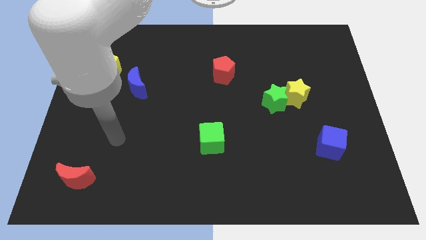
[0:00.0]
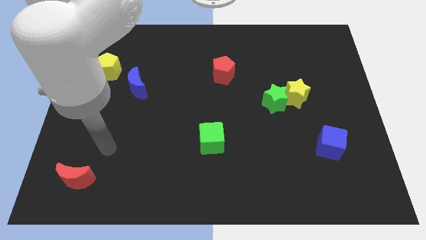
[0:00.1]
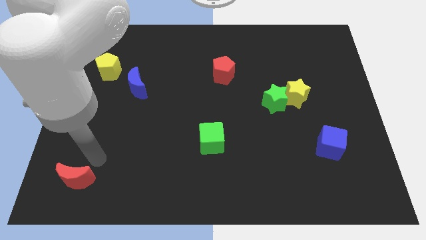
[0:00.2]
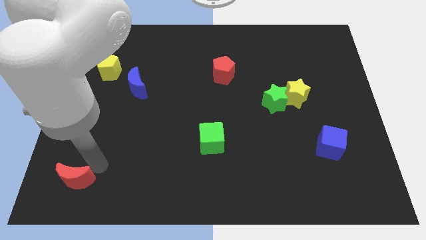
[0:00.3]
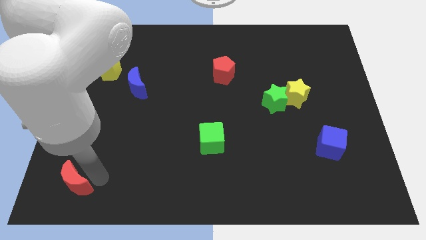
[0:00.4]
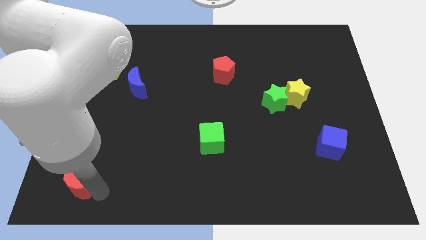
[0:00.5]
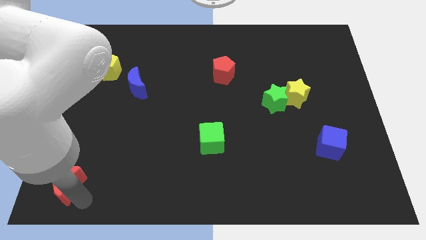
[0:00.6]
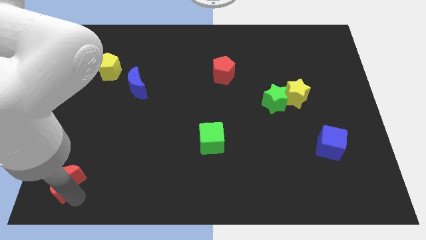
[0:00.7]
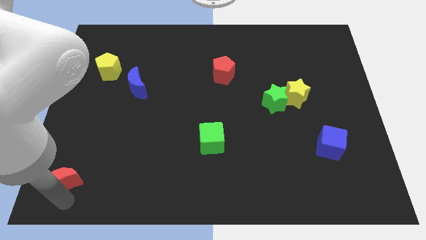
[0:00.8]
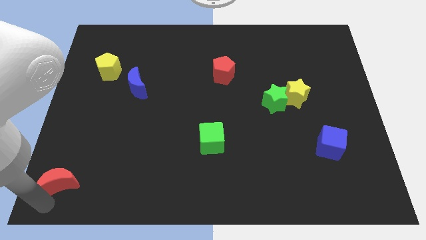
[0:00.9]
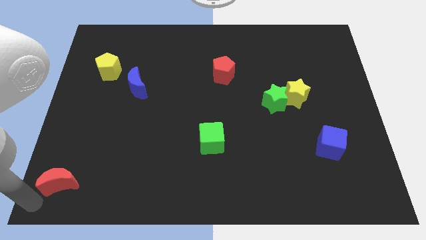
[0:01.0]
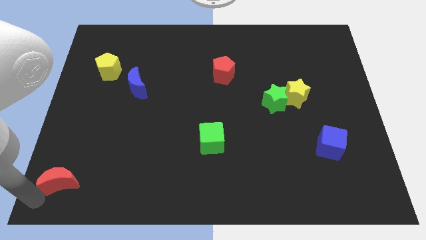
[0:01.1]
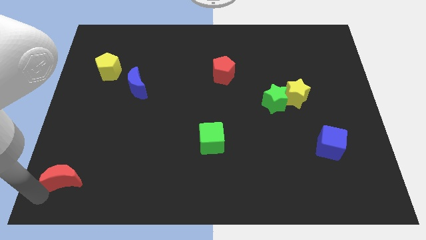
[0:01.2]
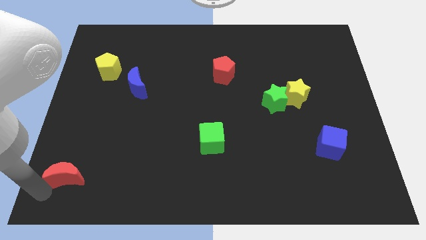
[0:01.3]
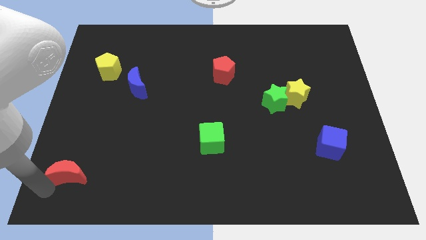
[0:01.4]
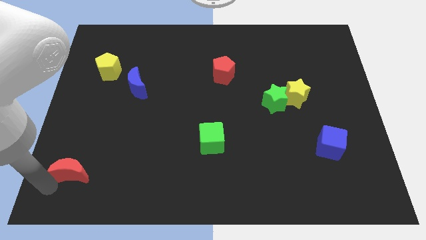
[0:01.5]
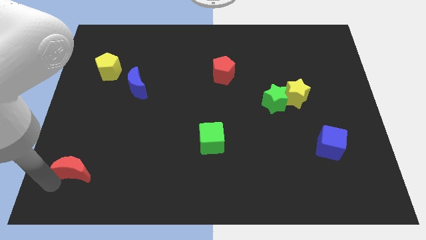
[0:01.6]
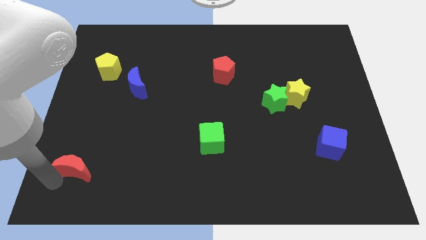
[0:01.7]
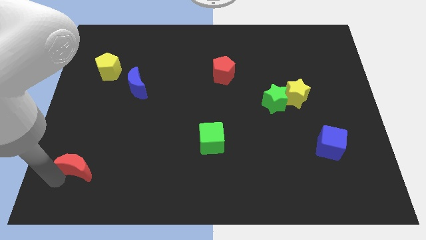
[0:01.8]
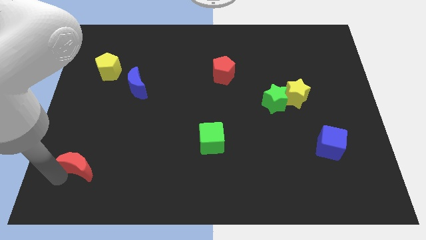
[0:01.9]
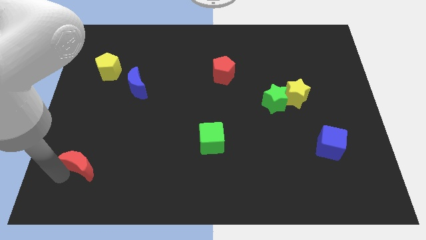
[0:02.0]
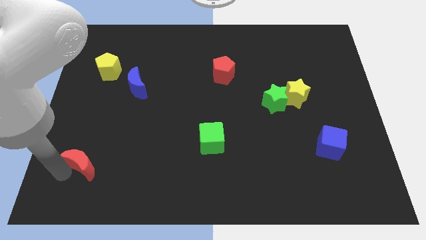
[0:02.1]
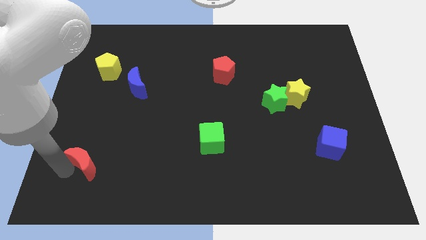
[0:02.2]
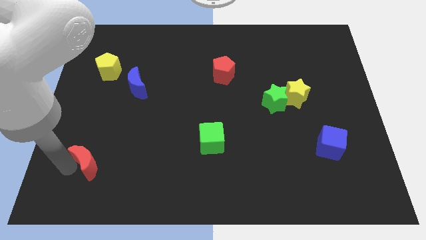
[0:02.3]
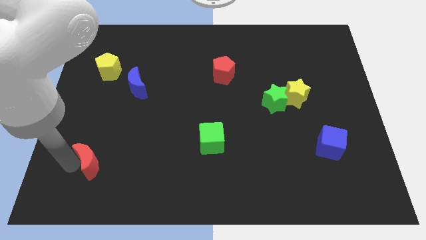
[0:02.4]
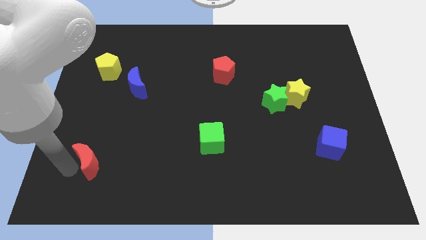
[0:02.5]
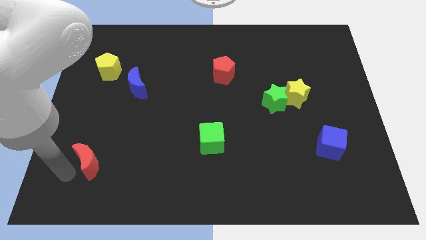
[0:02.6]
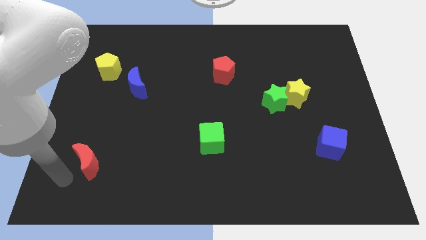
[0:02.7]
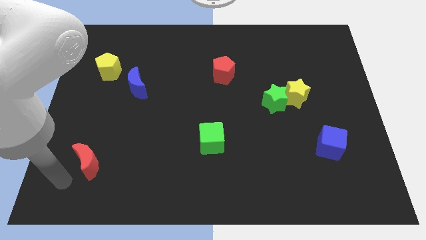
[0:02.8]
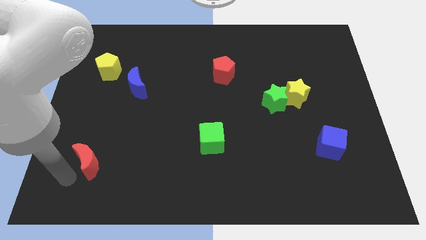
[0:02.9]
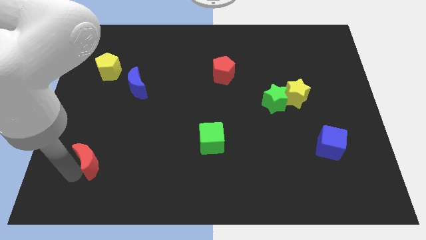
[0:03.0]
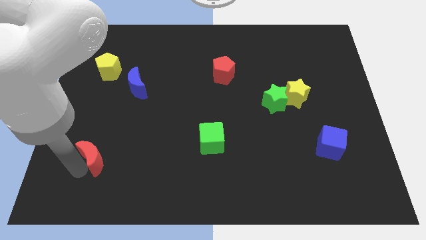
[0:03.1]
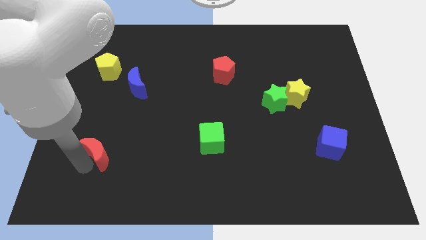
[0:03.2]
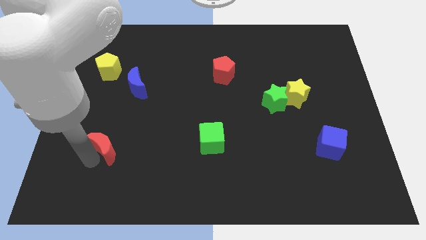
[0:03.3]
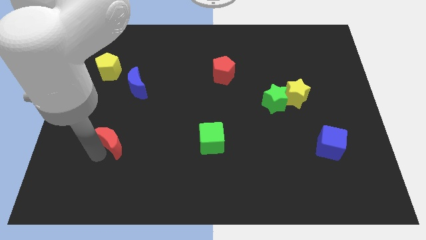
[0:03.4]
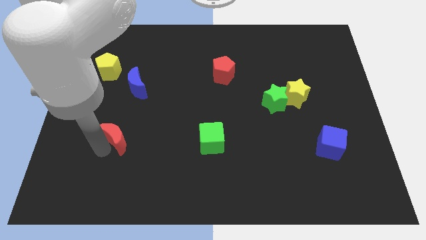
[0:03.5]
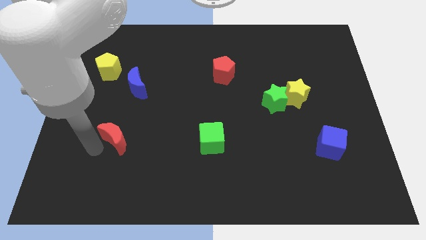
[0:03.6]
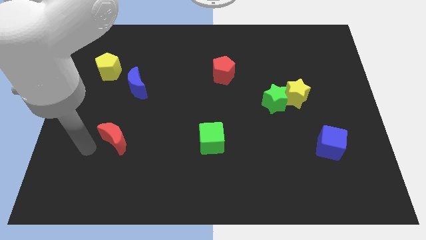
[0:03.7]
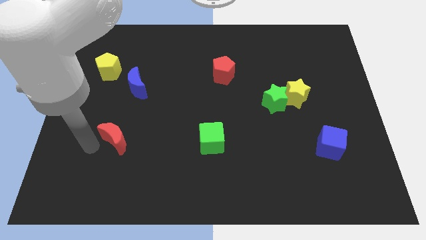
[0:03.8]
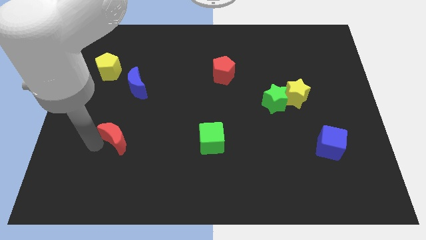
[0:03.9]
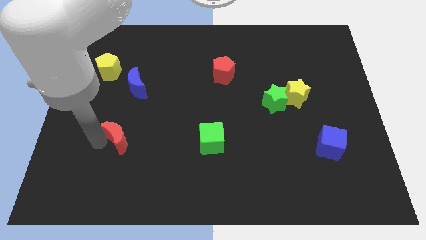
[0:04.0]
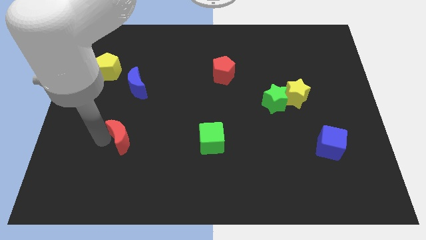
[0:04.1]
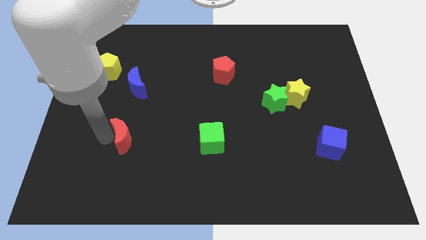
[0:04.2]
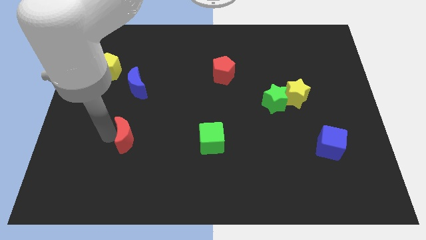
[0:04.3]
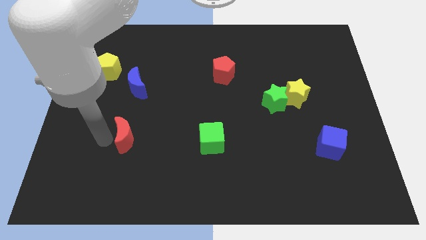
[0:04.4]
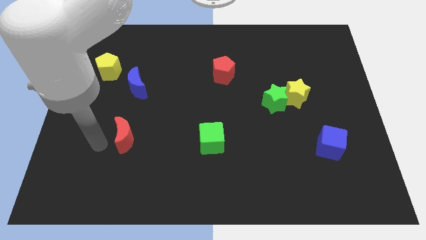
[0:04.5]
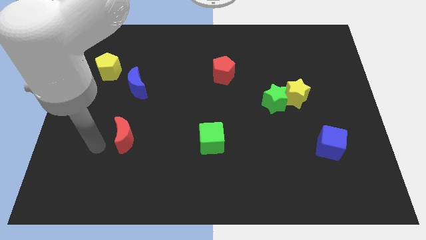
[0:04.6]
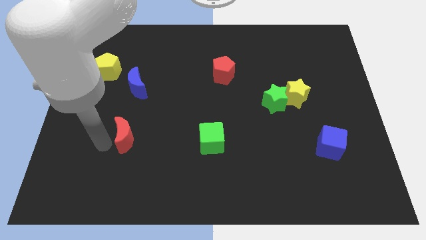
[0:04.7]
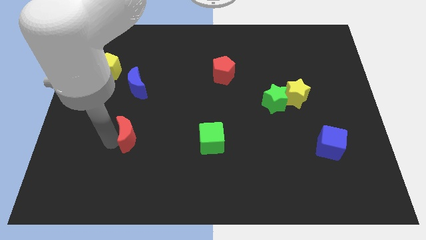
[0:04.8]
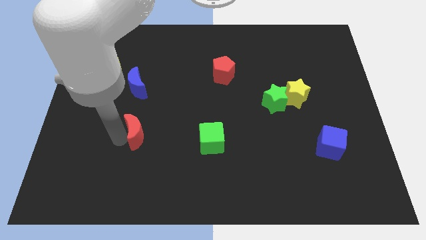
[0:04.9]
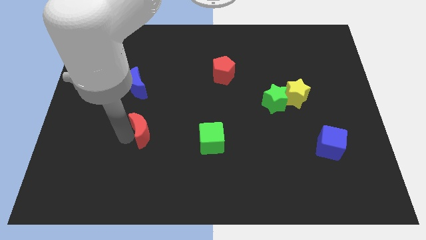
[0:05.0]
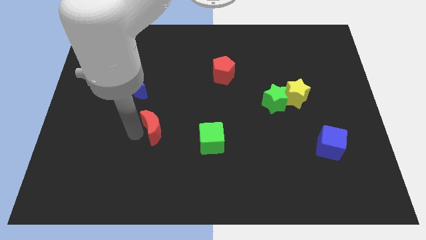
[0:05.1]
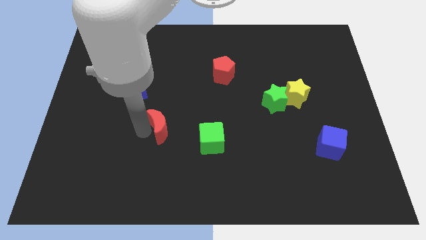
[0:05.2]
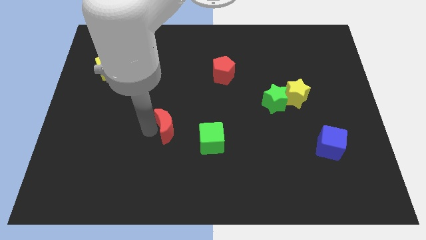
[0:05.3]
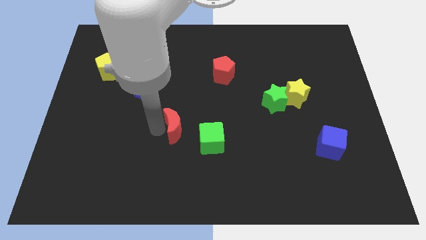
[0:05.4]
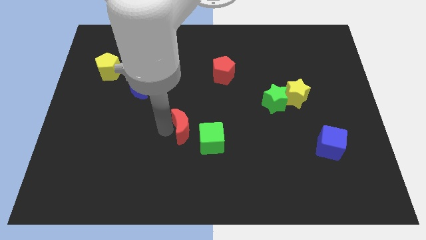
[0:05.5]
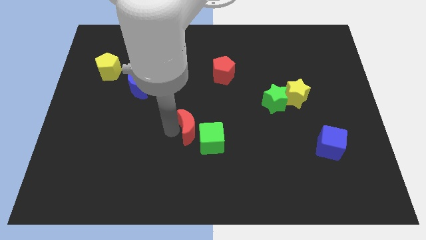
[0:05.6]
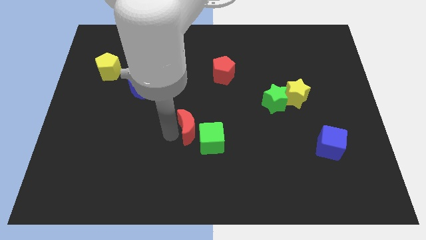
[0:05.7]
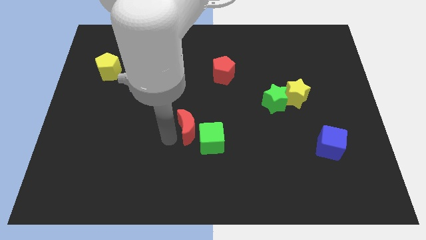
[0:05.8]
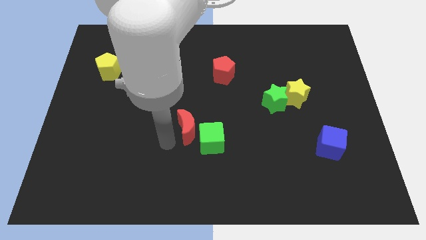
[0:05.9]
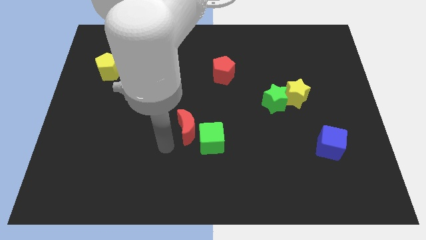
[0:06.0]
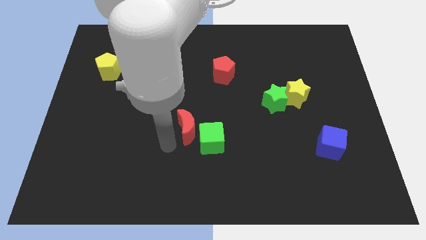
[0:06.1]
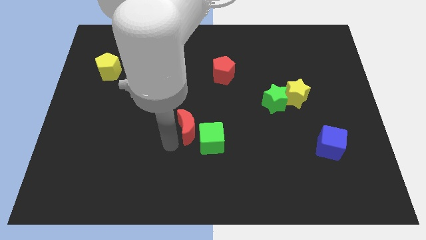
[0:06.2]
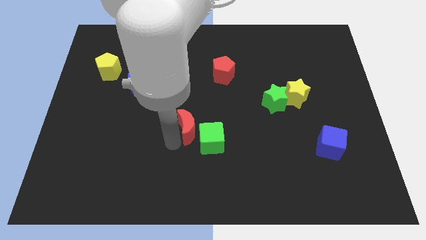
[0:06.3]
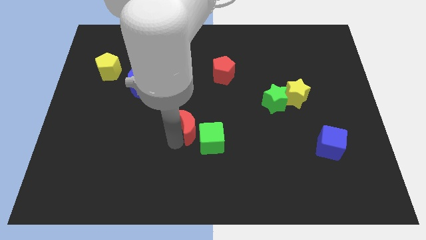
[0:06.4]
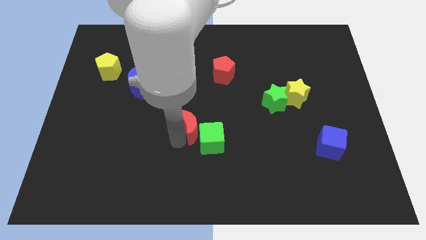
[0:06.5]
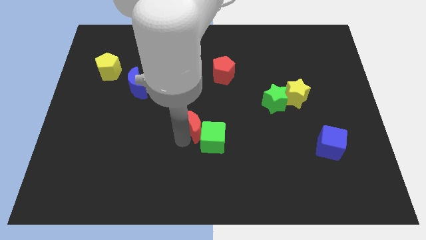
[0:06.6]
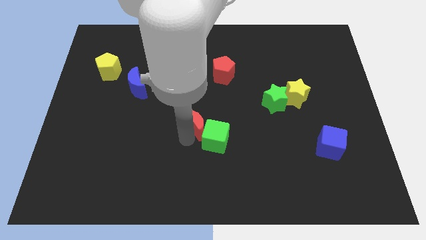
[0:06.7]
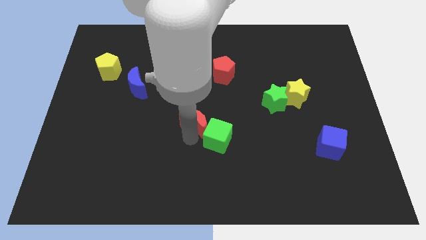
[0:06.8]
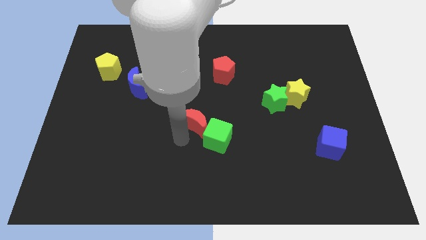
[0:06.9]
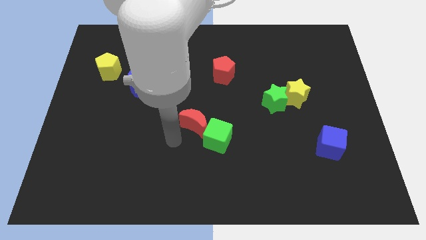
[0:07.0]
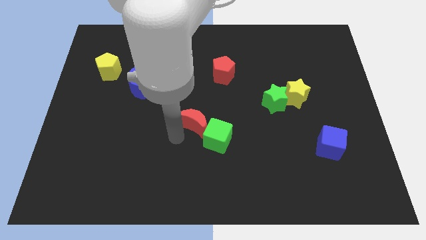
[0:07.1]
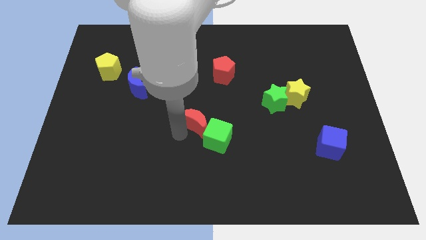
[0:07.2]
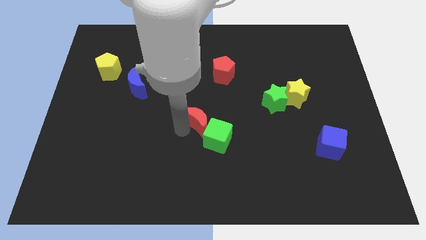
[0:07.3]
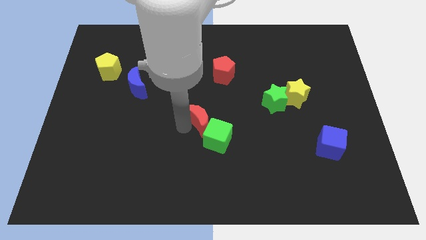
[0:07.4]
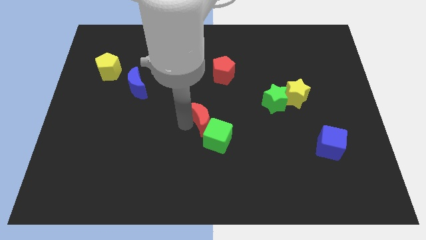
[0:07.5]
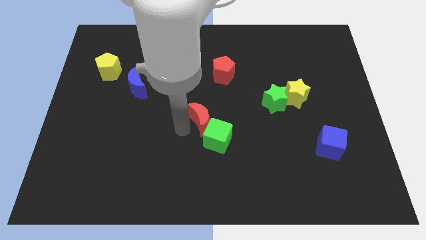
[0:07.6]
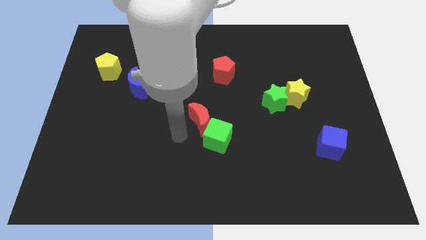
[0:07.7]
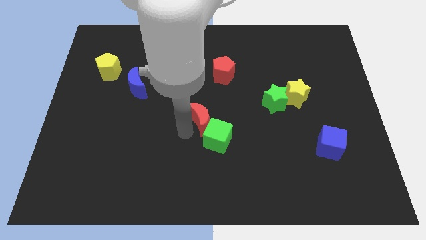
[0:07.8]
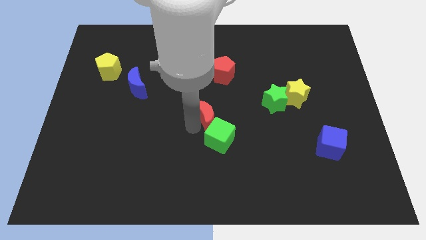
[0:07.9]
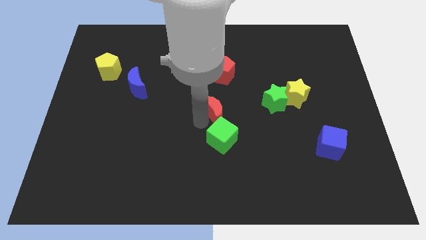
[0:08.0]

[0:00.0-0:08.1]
push the red moon left of the green star
